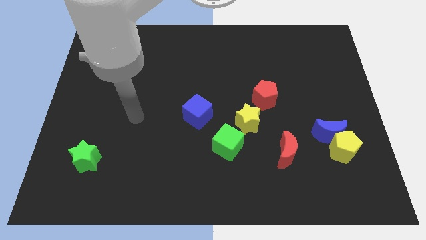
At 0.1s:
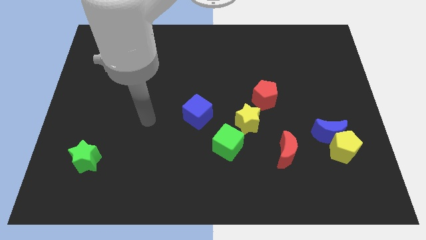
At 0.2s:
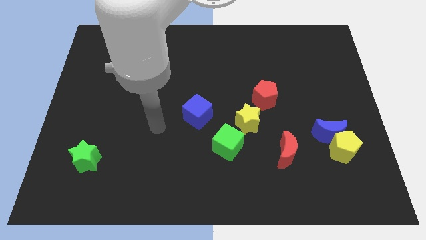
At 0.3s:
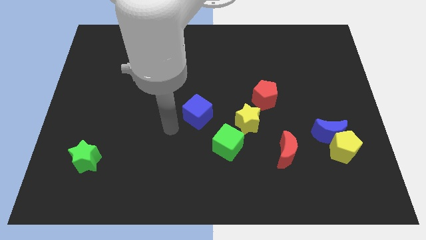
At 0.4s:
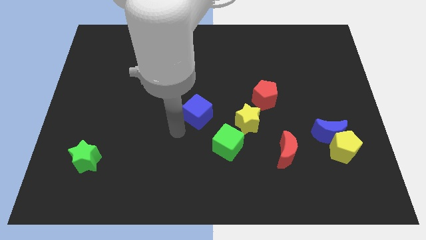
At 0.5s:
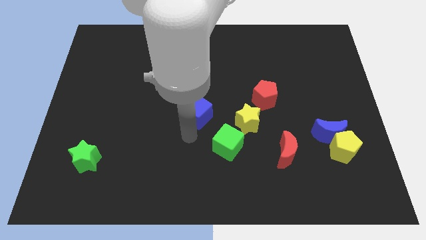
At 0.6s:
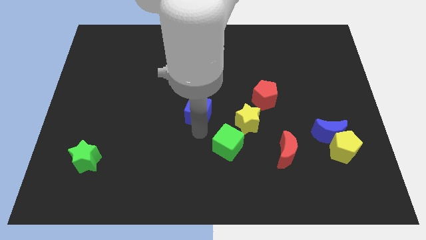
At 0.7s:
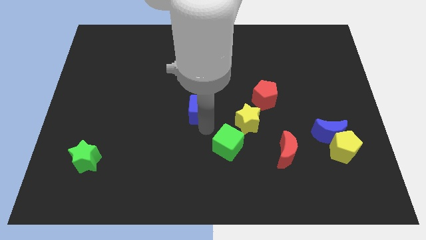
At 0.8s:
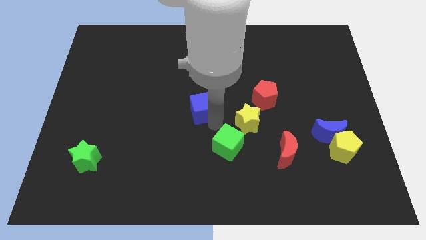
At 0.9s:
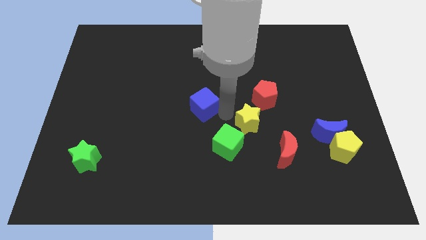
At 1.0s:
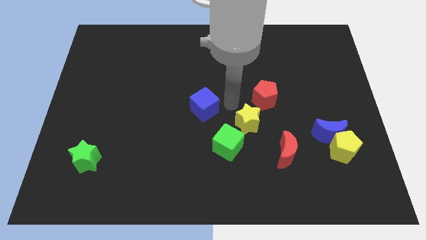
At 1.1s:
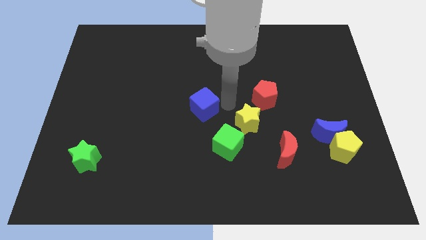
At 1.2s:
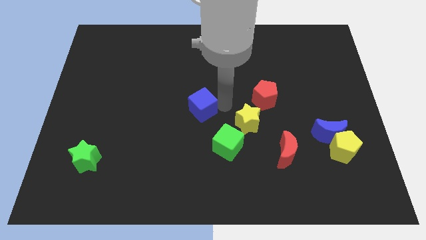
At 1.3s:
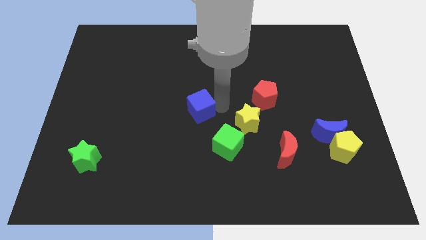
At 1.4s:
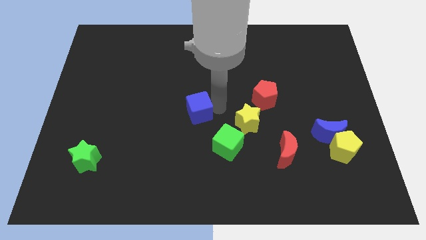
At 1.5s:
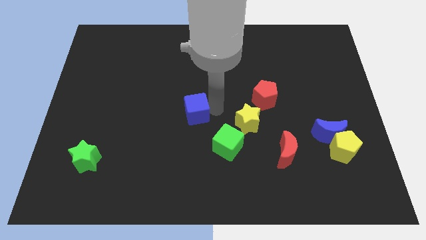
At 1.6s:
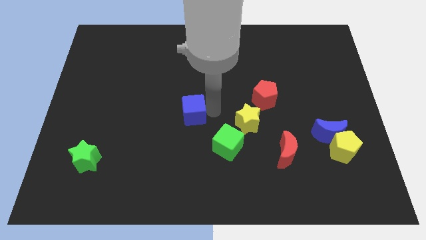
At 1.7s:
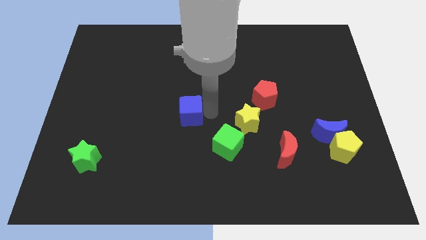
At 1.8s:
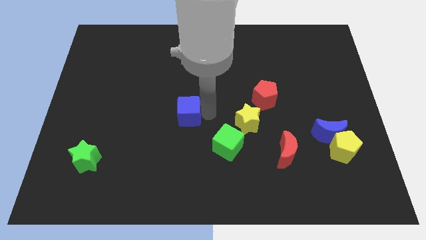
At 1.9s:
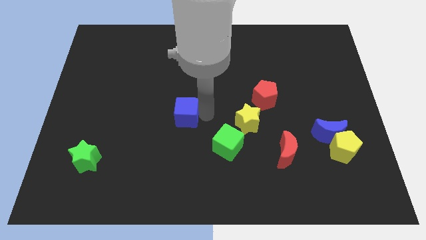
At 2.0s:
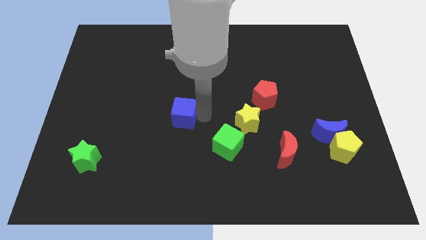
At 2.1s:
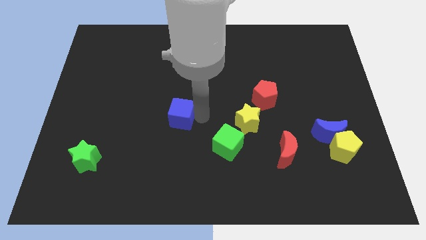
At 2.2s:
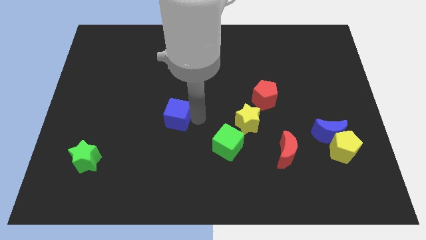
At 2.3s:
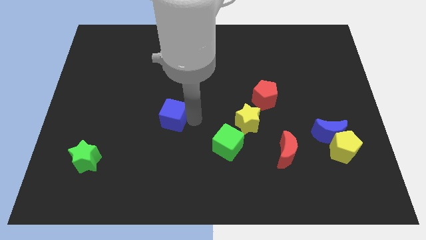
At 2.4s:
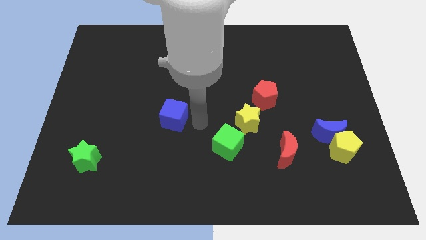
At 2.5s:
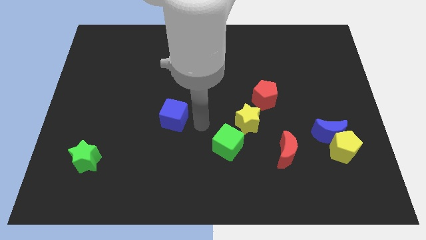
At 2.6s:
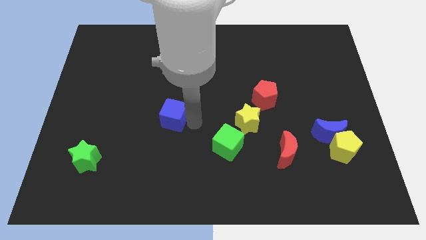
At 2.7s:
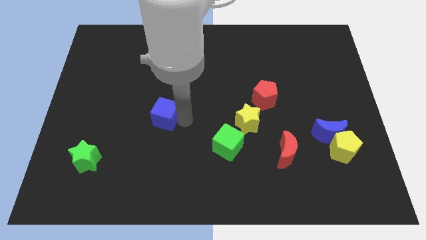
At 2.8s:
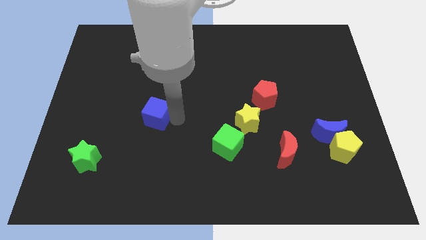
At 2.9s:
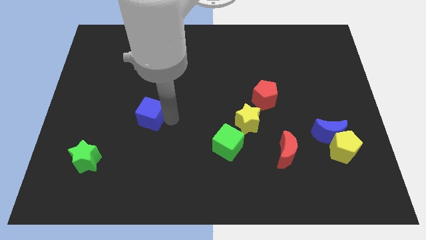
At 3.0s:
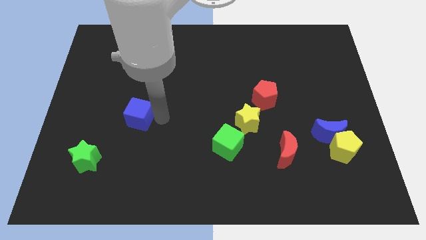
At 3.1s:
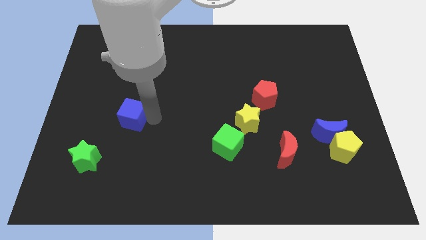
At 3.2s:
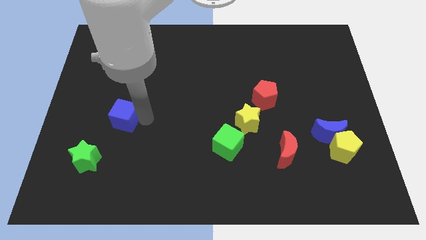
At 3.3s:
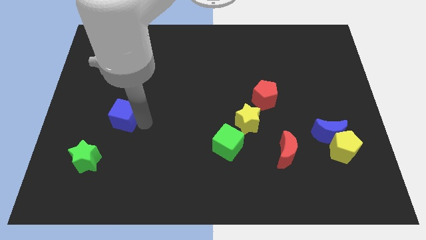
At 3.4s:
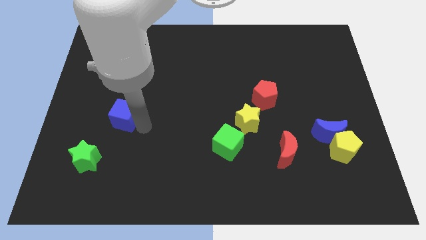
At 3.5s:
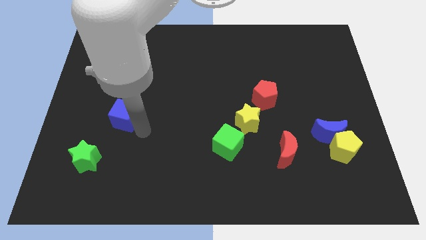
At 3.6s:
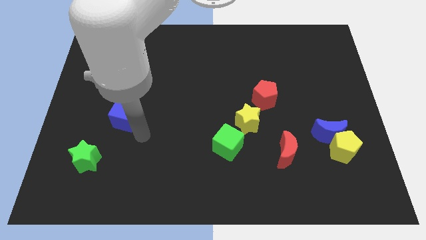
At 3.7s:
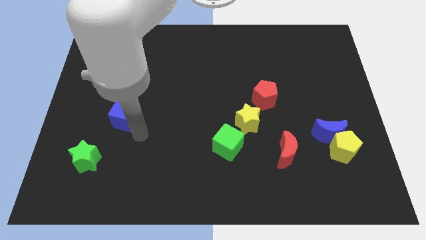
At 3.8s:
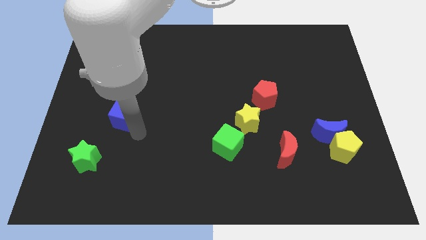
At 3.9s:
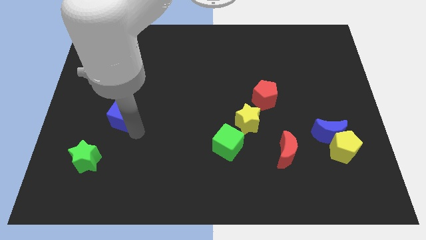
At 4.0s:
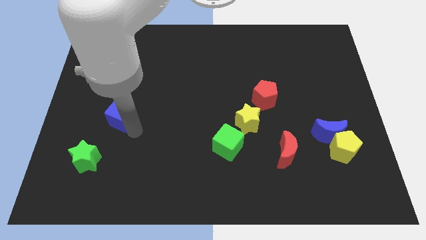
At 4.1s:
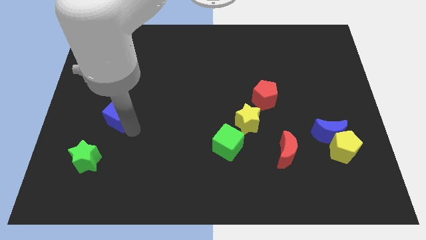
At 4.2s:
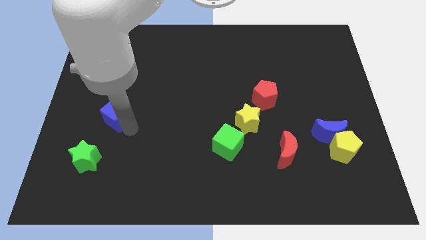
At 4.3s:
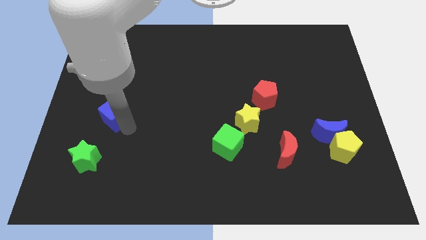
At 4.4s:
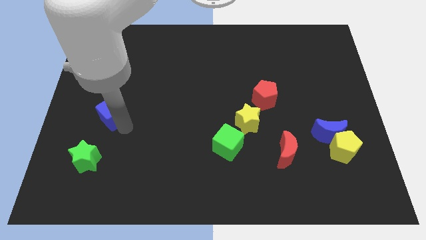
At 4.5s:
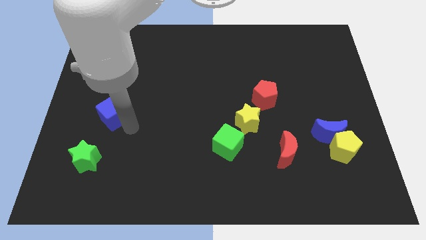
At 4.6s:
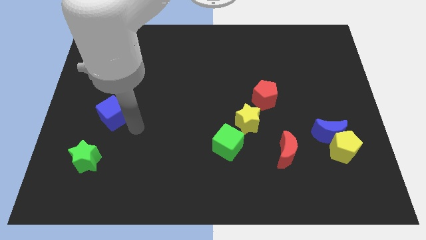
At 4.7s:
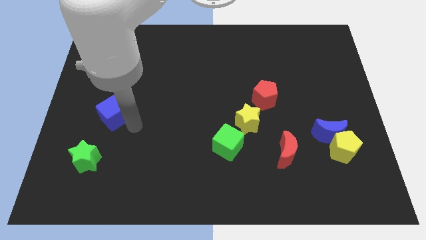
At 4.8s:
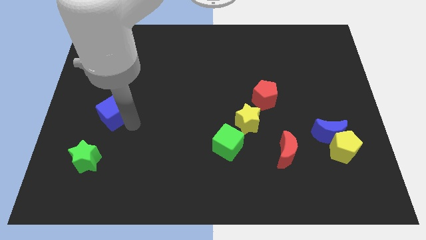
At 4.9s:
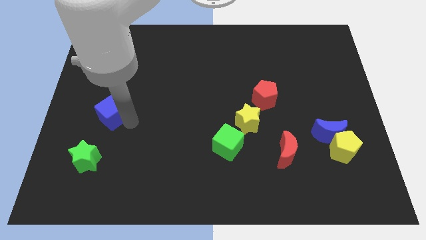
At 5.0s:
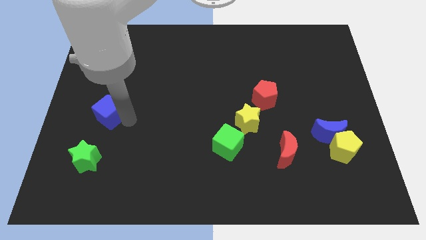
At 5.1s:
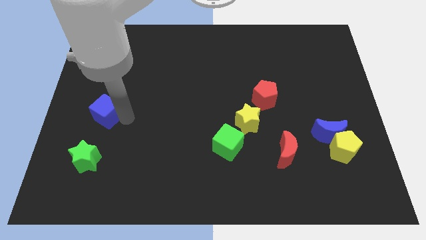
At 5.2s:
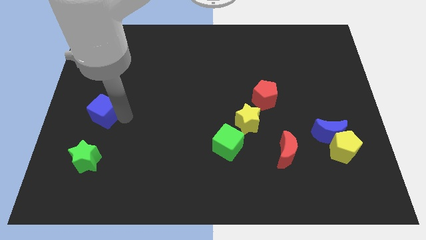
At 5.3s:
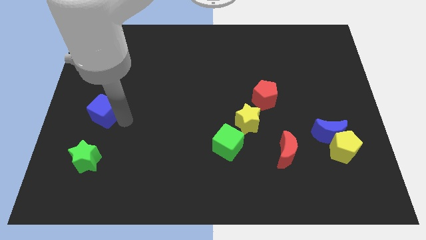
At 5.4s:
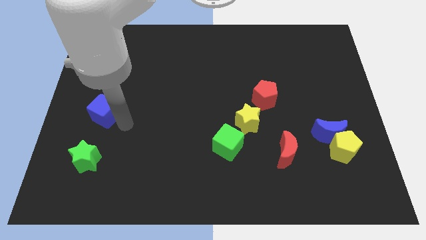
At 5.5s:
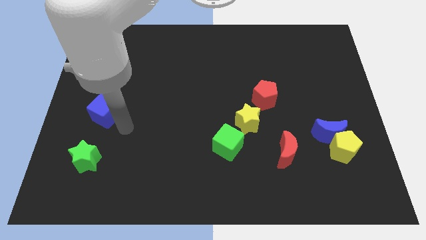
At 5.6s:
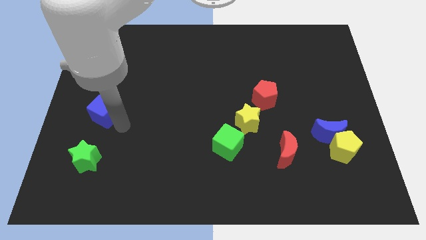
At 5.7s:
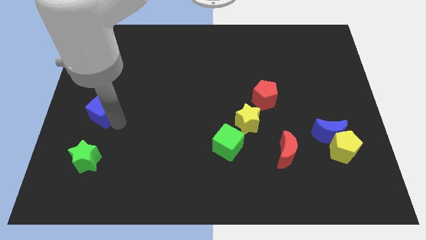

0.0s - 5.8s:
move the blue cube to the left side of the board

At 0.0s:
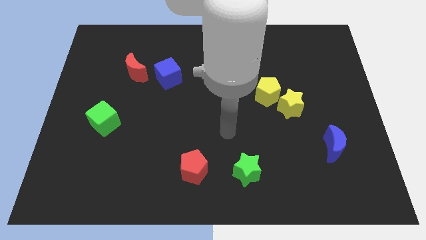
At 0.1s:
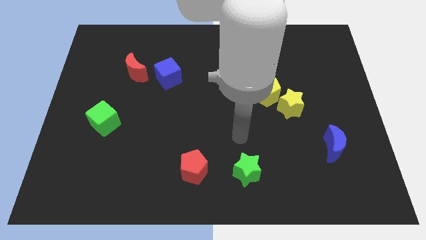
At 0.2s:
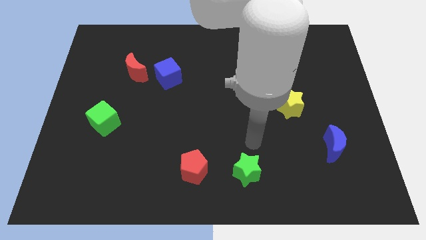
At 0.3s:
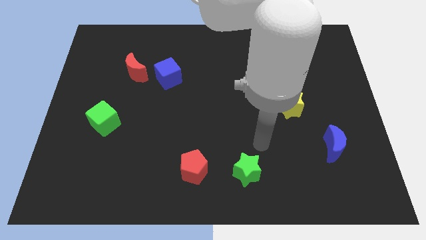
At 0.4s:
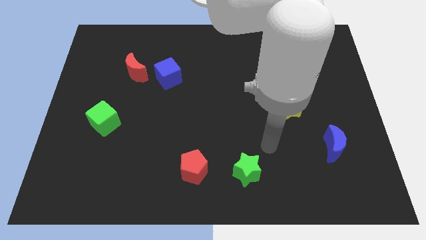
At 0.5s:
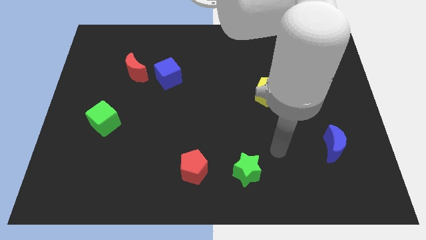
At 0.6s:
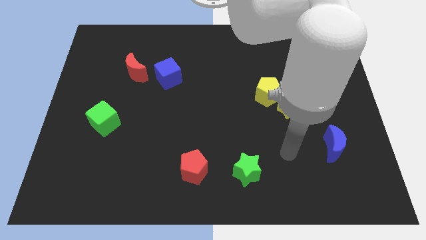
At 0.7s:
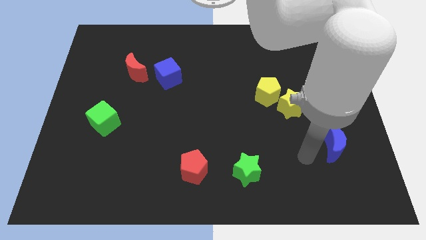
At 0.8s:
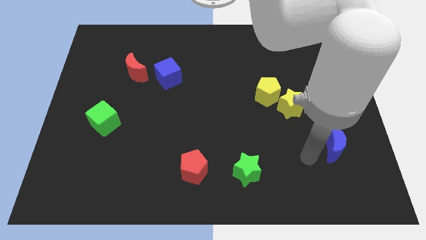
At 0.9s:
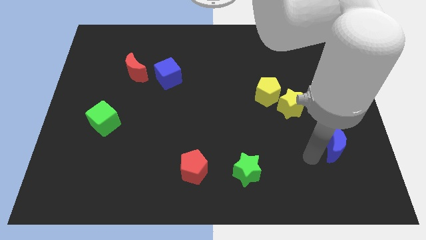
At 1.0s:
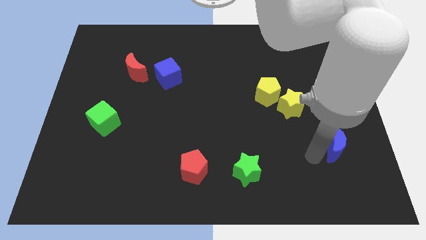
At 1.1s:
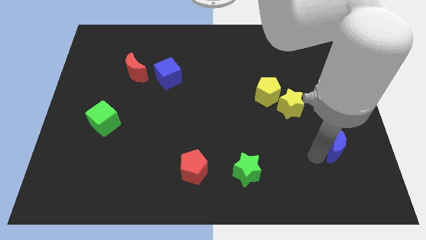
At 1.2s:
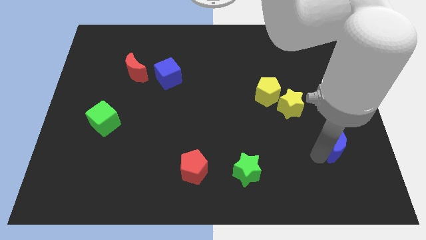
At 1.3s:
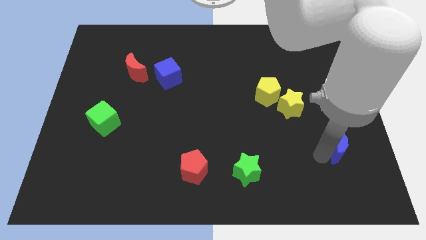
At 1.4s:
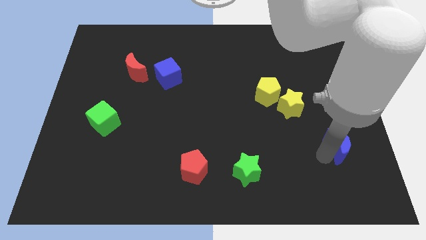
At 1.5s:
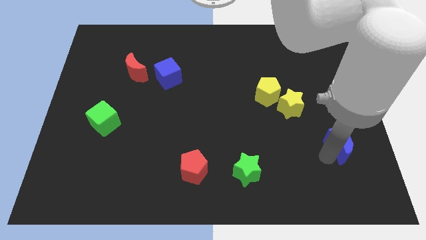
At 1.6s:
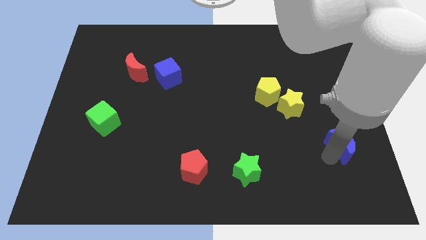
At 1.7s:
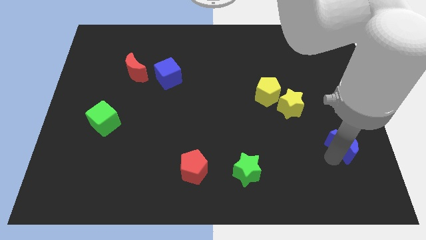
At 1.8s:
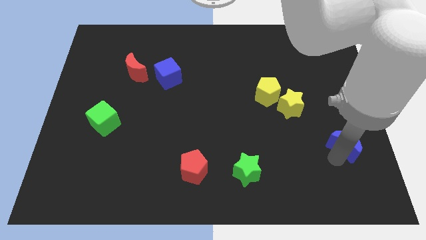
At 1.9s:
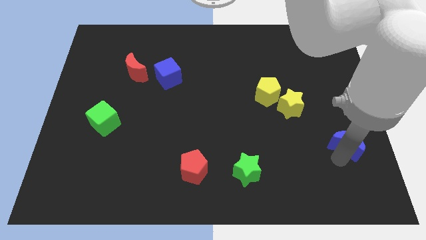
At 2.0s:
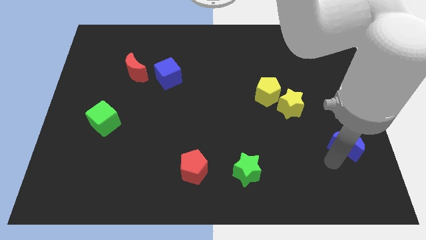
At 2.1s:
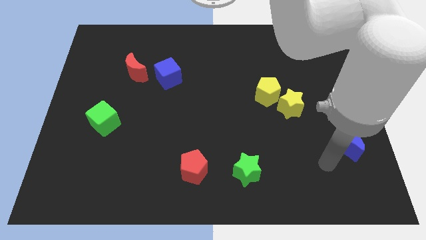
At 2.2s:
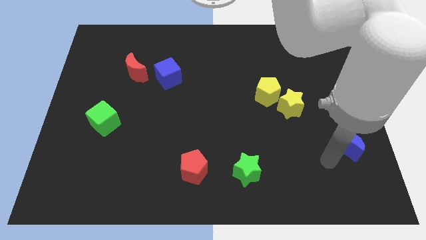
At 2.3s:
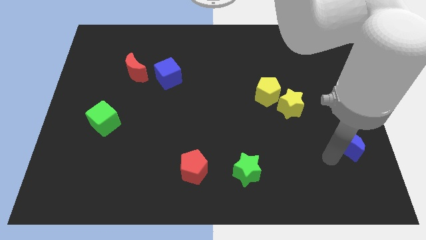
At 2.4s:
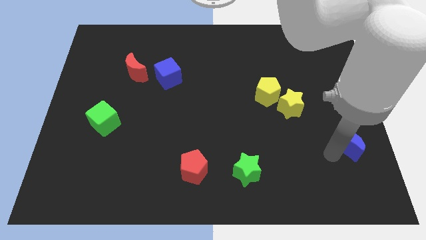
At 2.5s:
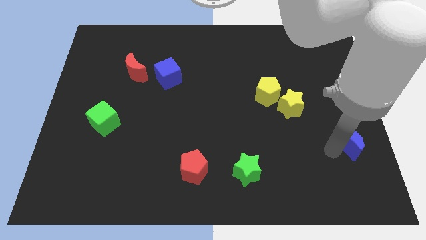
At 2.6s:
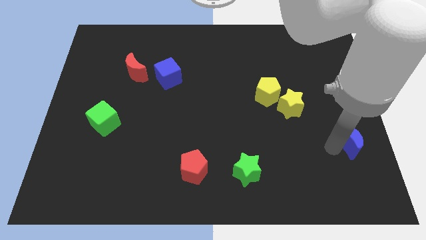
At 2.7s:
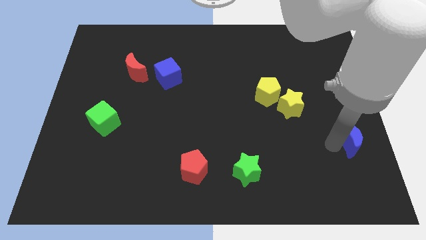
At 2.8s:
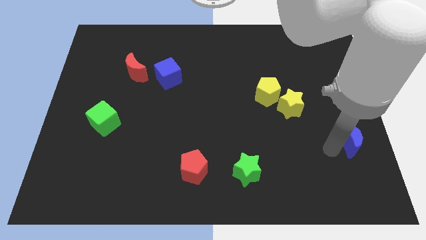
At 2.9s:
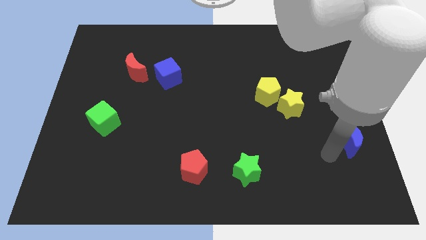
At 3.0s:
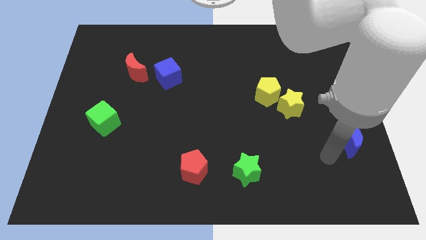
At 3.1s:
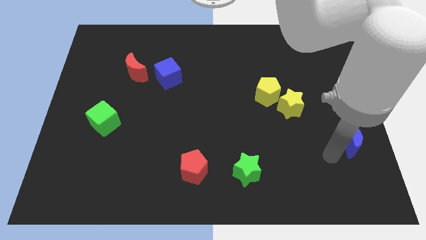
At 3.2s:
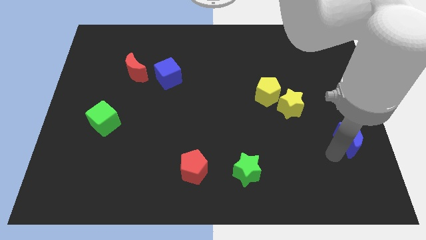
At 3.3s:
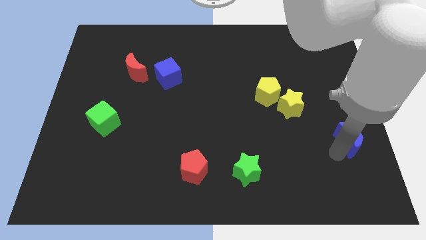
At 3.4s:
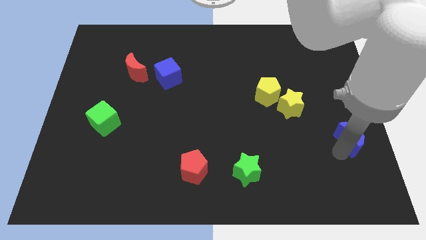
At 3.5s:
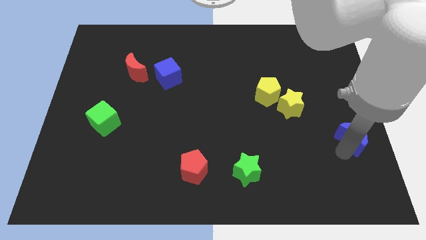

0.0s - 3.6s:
move the blue moon to the right side of the board
